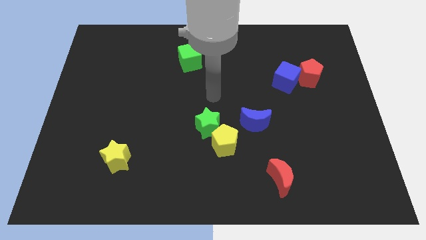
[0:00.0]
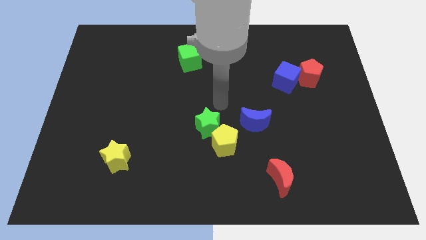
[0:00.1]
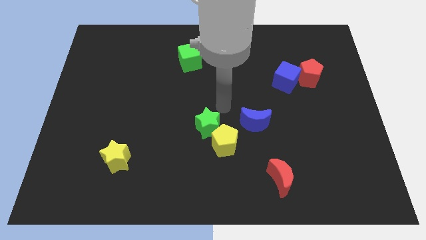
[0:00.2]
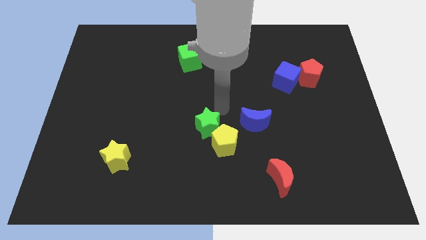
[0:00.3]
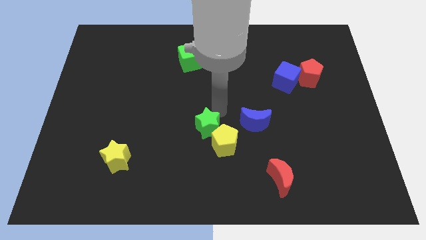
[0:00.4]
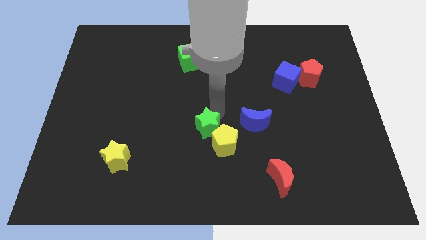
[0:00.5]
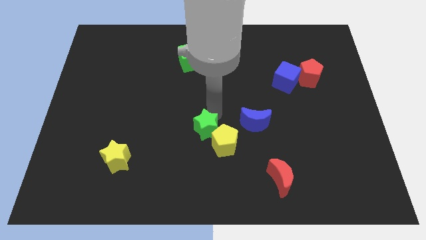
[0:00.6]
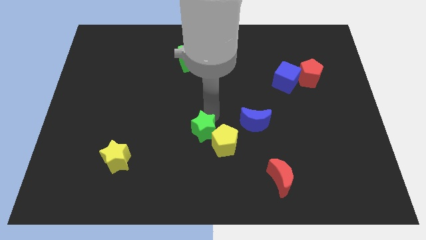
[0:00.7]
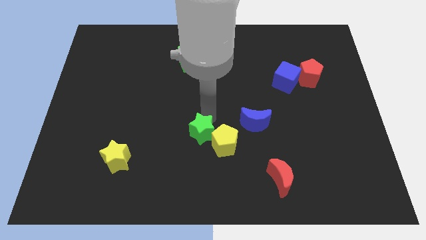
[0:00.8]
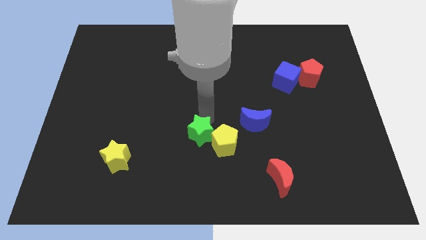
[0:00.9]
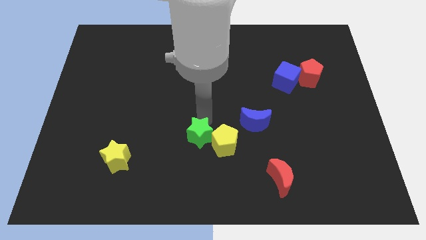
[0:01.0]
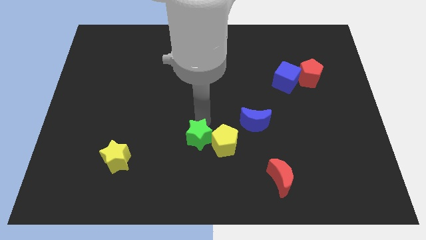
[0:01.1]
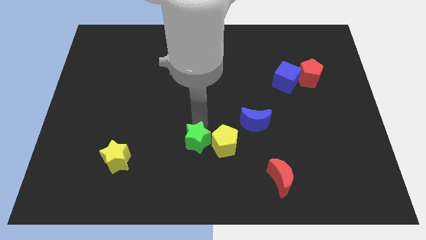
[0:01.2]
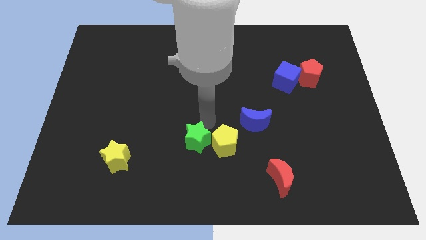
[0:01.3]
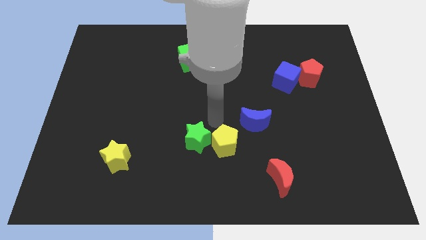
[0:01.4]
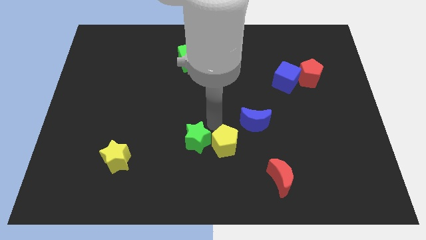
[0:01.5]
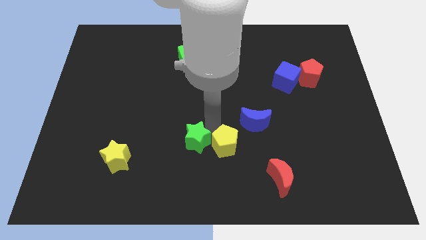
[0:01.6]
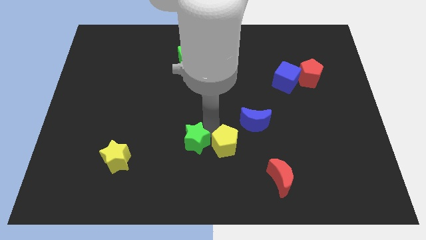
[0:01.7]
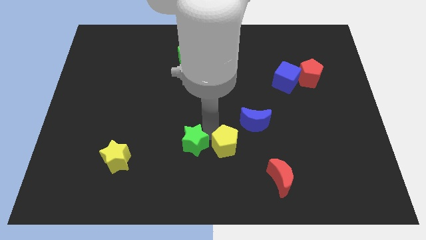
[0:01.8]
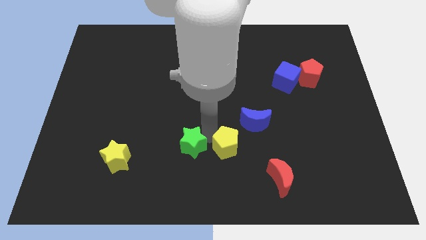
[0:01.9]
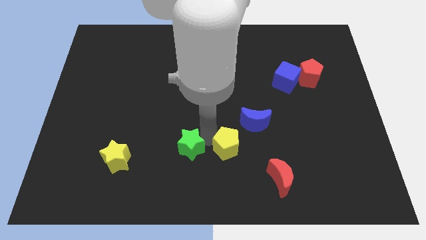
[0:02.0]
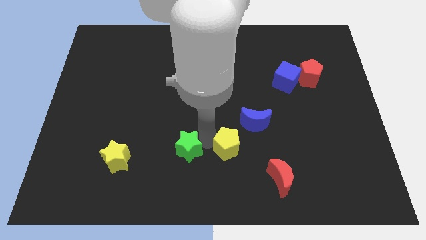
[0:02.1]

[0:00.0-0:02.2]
push the green star diagonally down and left a little bit

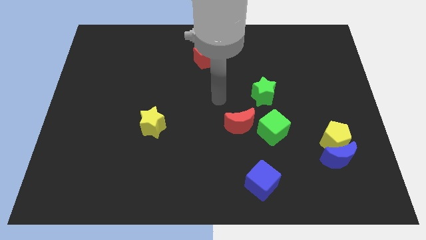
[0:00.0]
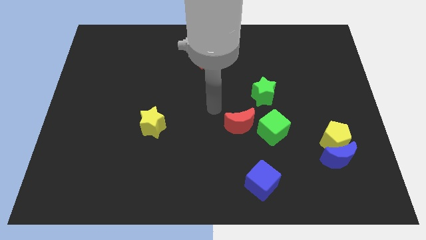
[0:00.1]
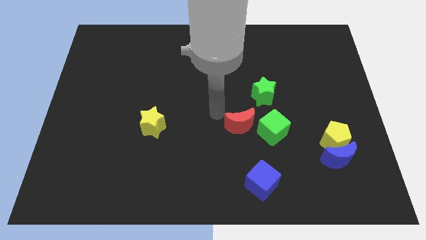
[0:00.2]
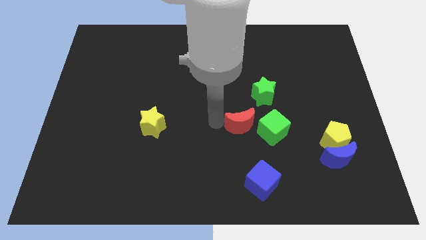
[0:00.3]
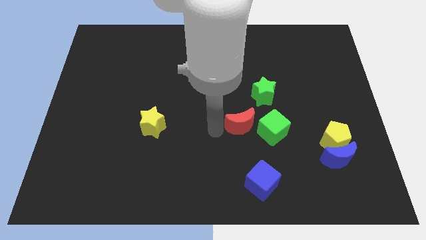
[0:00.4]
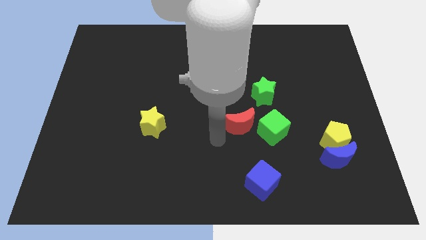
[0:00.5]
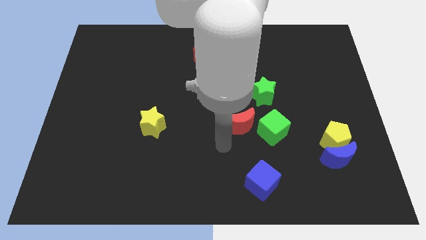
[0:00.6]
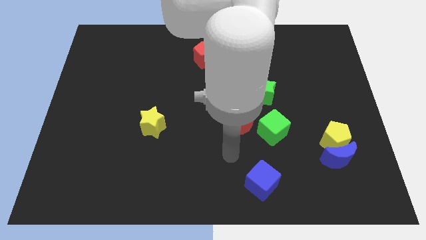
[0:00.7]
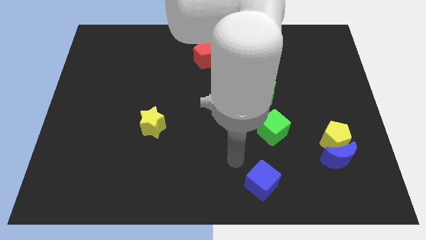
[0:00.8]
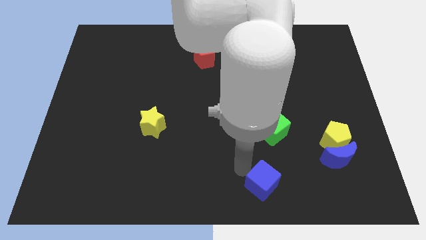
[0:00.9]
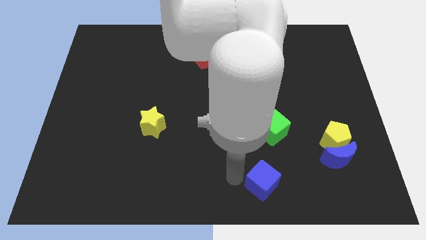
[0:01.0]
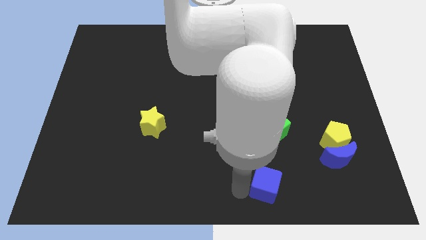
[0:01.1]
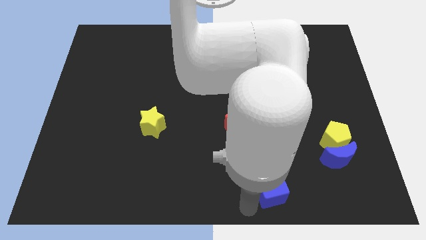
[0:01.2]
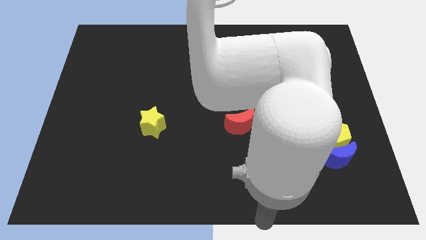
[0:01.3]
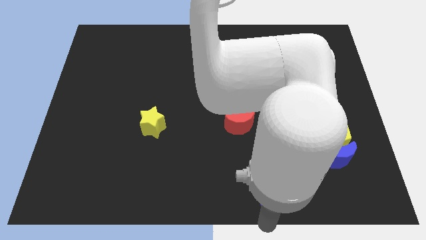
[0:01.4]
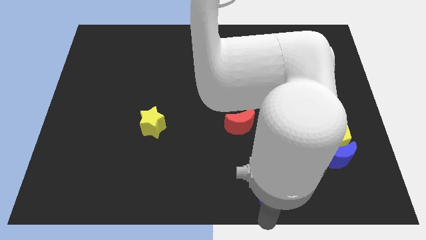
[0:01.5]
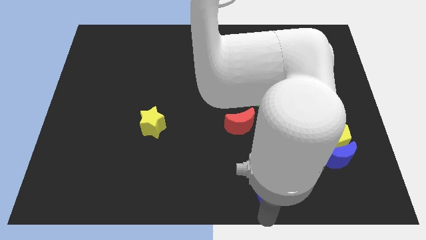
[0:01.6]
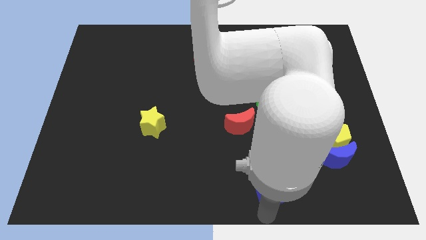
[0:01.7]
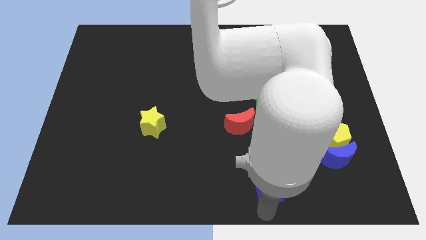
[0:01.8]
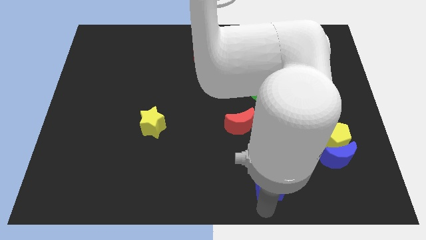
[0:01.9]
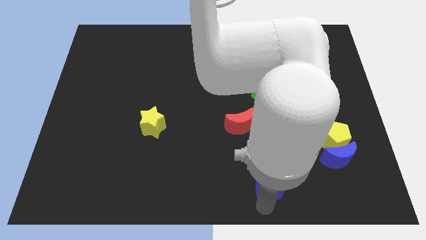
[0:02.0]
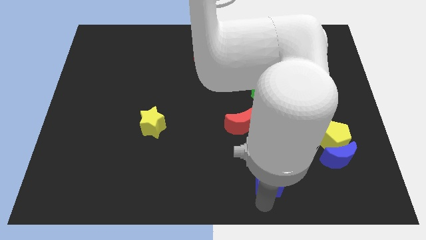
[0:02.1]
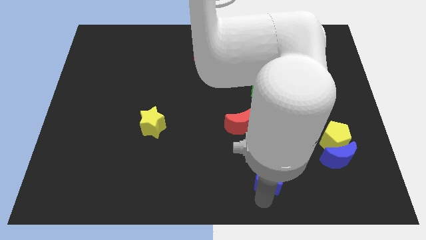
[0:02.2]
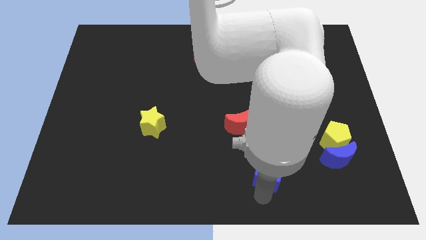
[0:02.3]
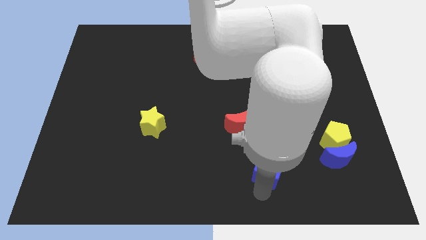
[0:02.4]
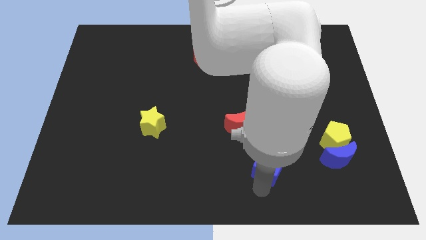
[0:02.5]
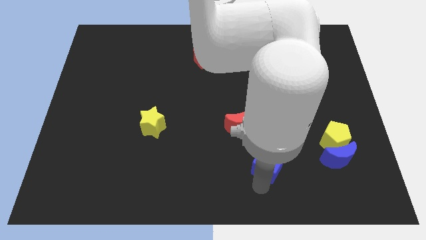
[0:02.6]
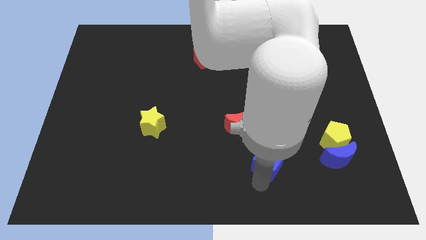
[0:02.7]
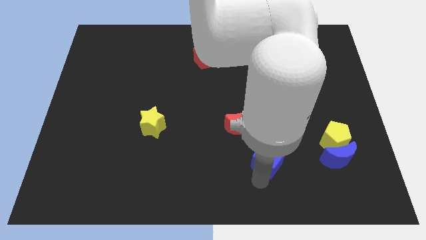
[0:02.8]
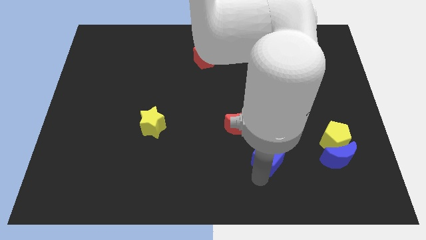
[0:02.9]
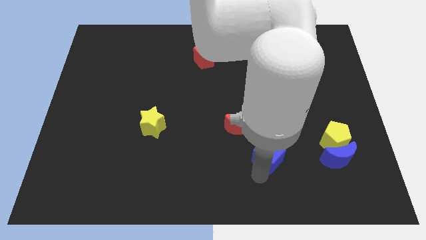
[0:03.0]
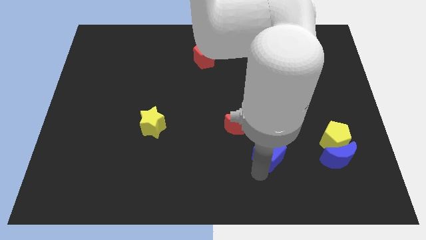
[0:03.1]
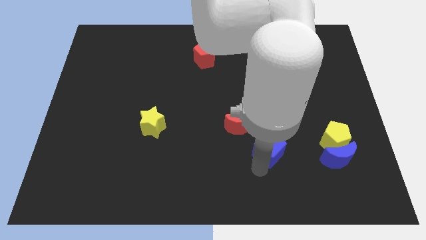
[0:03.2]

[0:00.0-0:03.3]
move the blue cube up a little

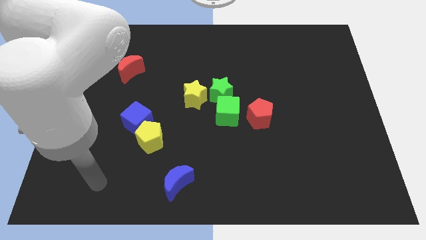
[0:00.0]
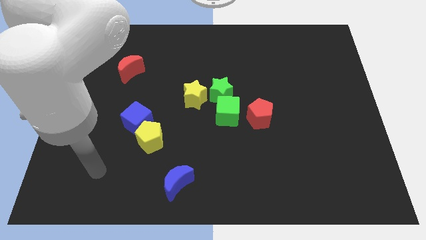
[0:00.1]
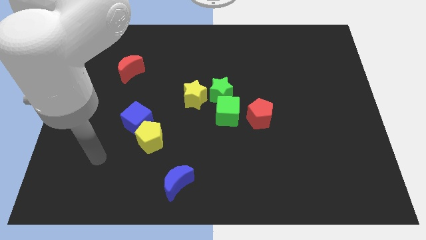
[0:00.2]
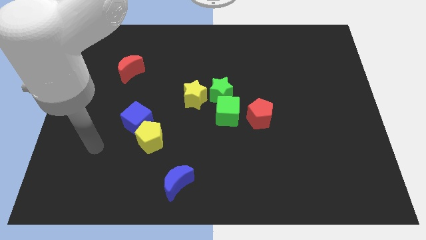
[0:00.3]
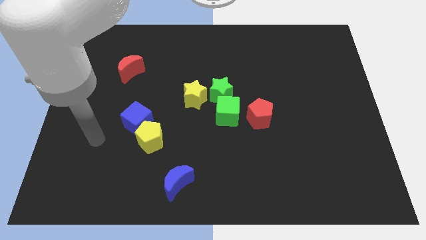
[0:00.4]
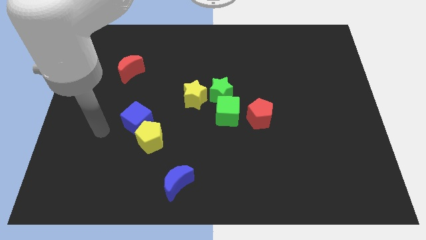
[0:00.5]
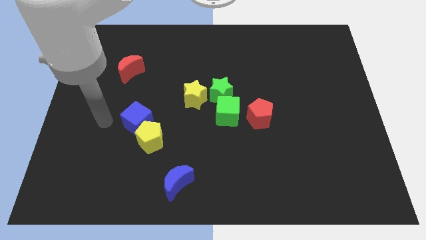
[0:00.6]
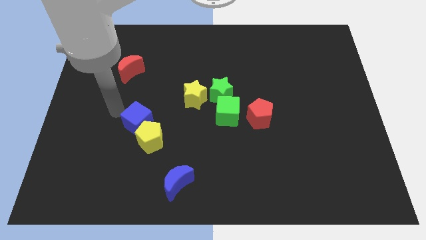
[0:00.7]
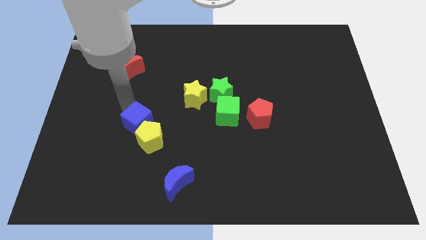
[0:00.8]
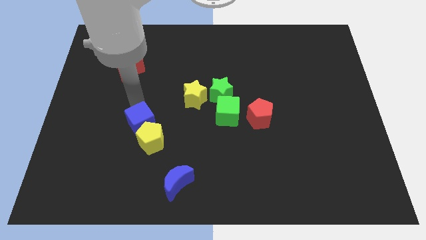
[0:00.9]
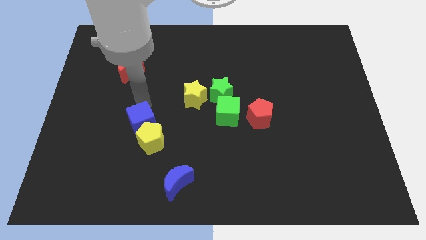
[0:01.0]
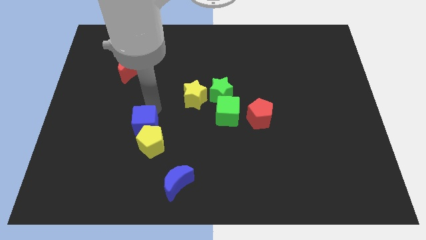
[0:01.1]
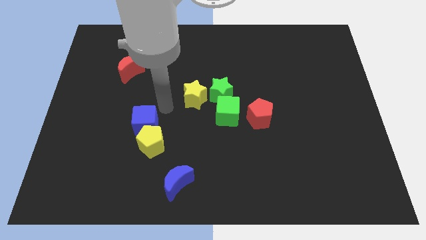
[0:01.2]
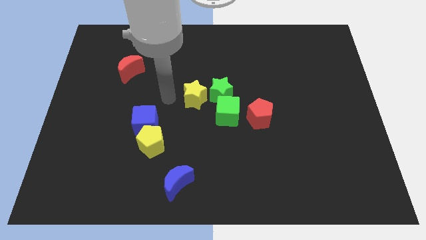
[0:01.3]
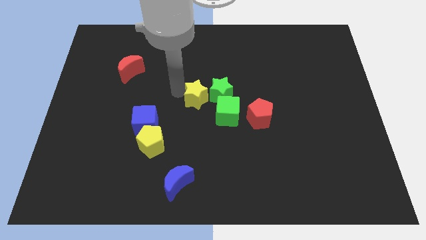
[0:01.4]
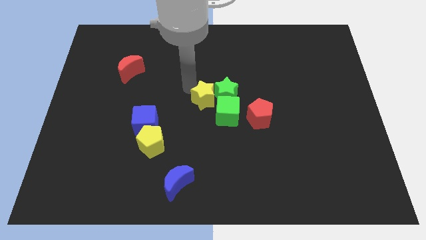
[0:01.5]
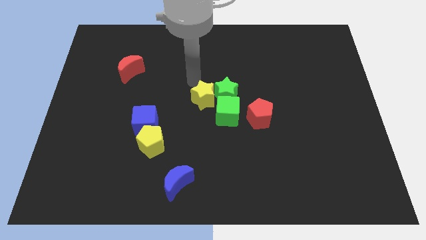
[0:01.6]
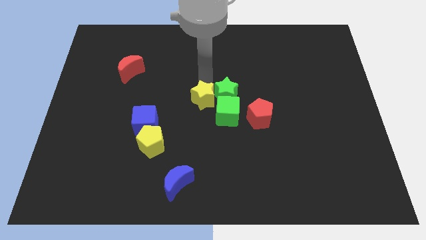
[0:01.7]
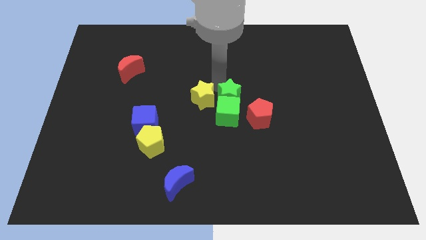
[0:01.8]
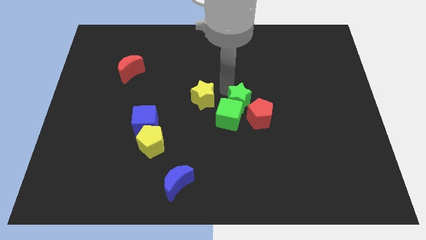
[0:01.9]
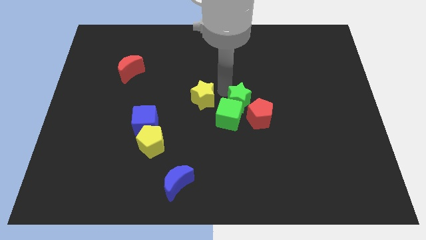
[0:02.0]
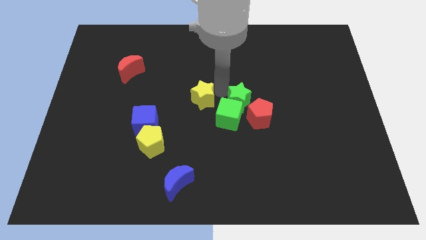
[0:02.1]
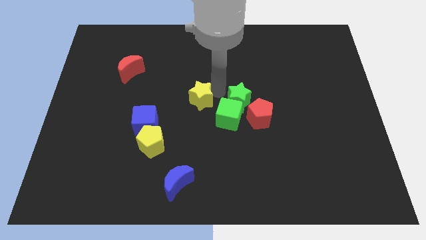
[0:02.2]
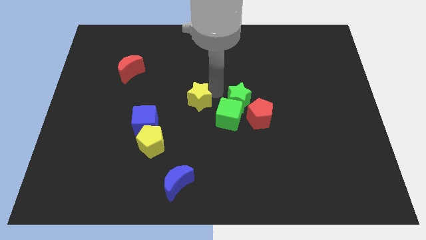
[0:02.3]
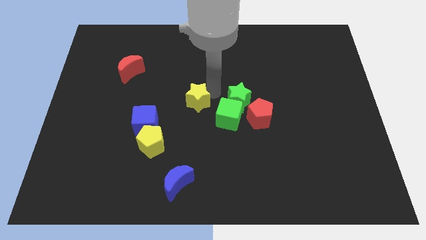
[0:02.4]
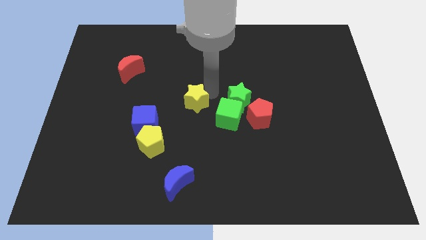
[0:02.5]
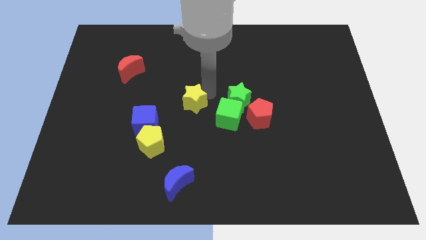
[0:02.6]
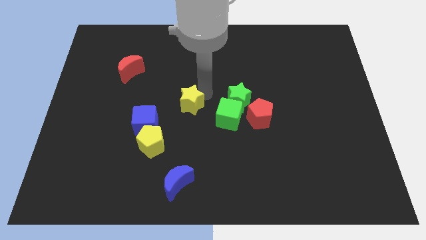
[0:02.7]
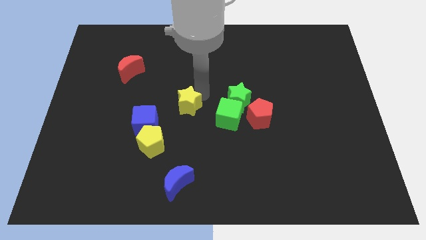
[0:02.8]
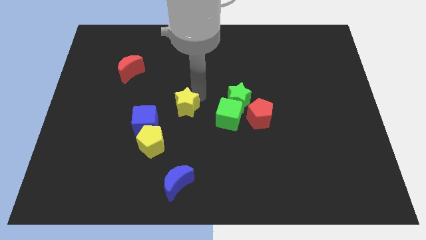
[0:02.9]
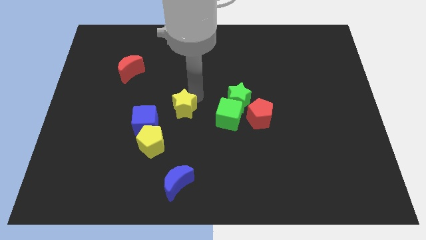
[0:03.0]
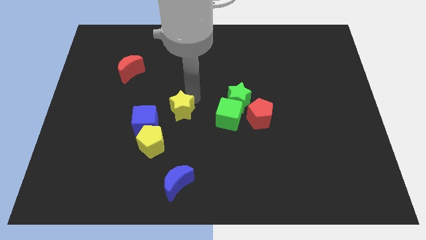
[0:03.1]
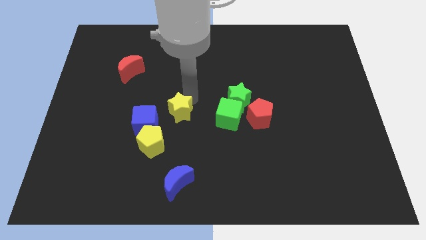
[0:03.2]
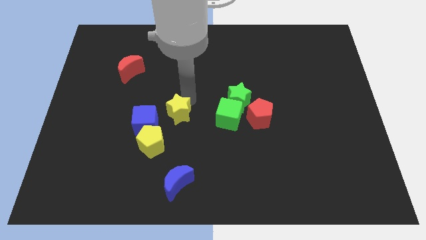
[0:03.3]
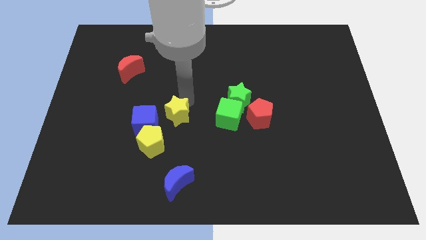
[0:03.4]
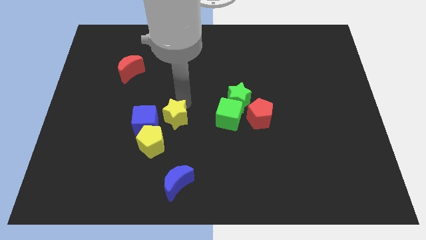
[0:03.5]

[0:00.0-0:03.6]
move the yellow star a little diagonally down and to the left
